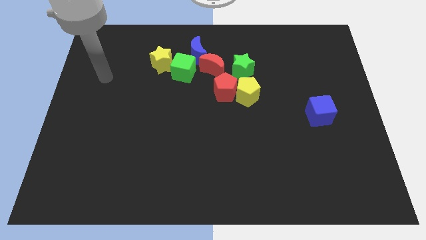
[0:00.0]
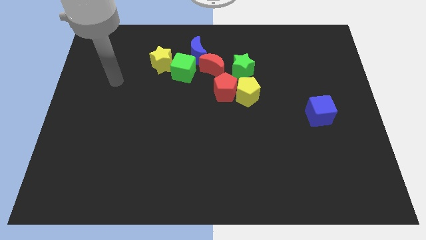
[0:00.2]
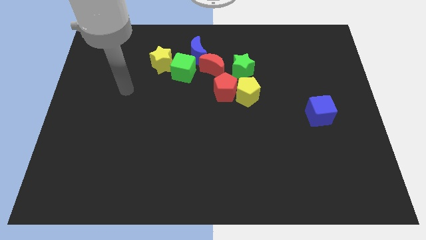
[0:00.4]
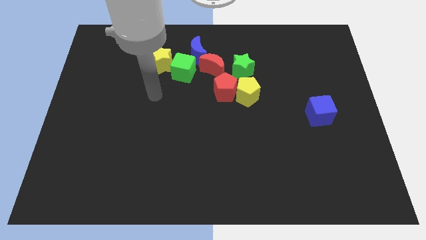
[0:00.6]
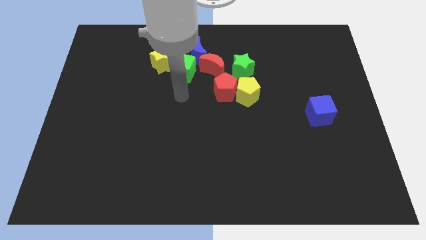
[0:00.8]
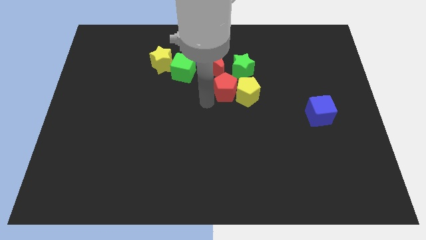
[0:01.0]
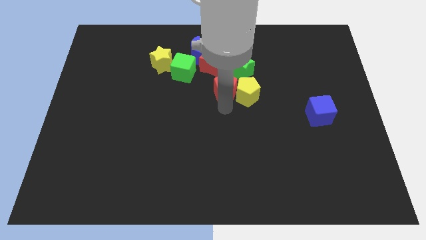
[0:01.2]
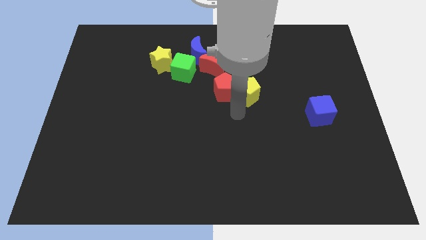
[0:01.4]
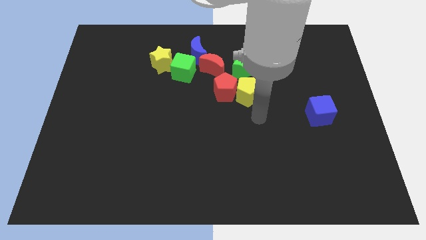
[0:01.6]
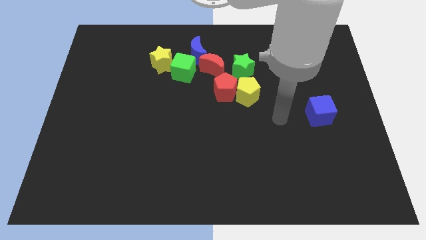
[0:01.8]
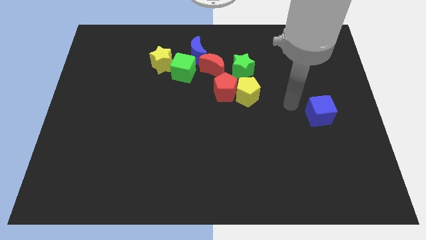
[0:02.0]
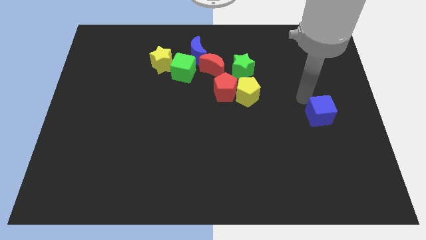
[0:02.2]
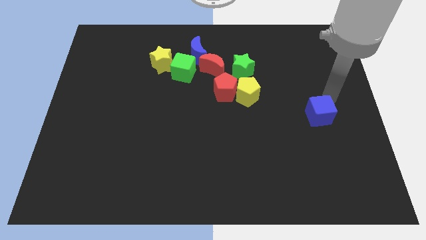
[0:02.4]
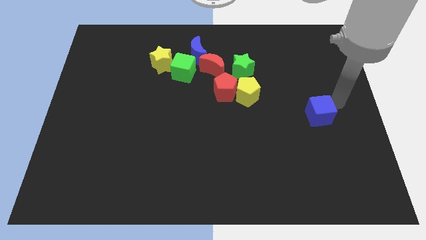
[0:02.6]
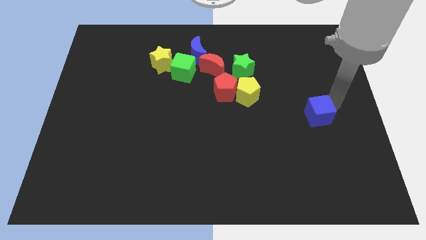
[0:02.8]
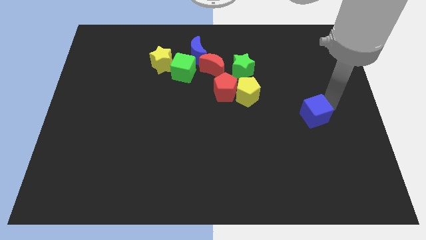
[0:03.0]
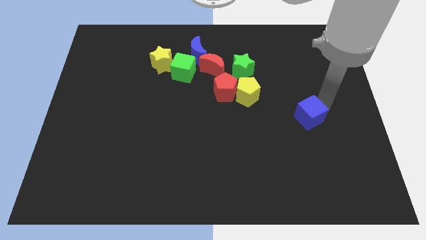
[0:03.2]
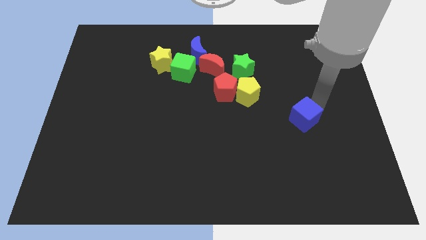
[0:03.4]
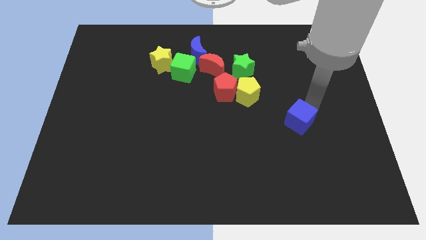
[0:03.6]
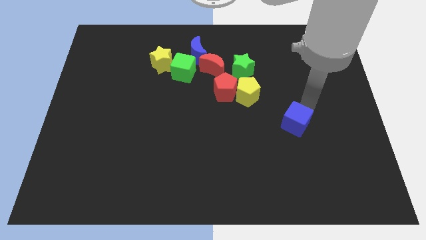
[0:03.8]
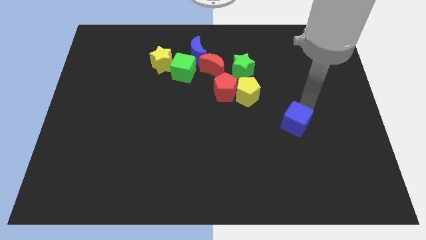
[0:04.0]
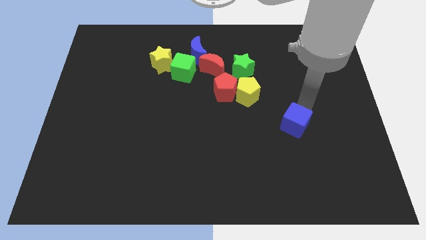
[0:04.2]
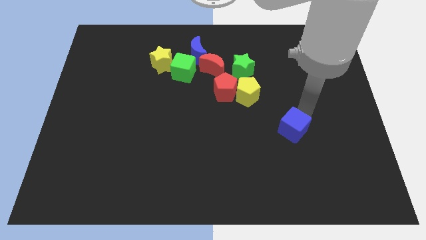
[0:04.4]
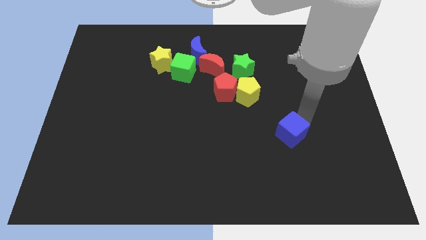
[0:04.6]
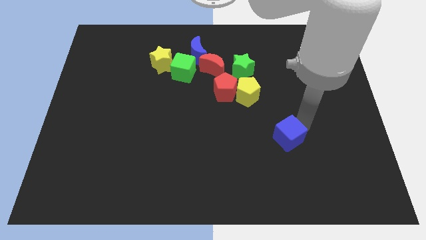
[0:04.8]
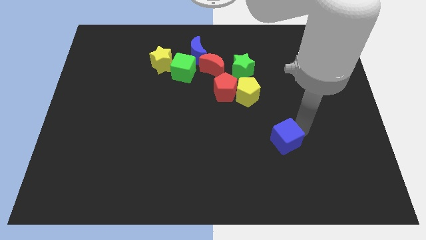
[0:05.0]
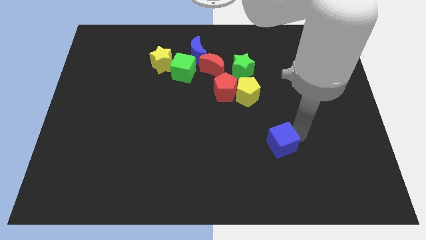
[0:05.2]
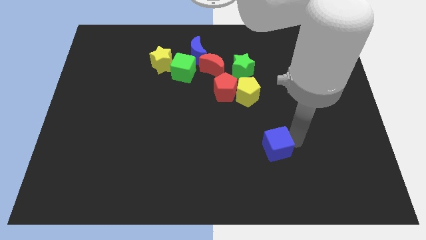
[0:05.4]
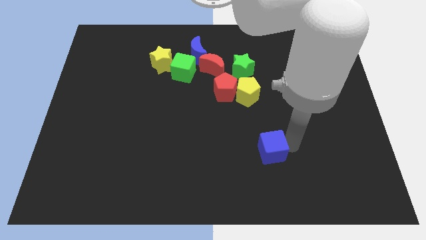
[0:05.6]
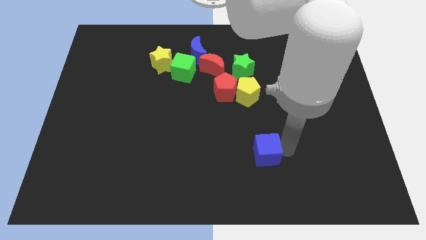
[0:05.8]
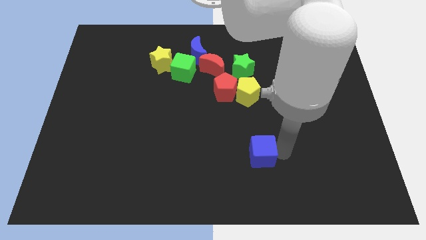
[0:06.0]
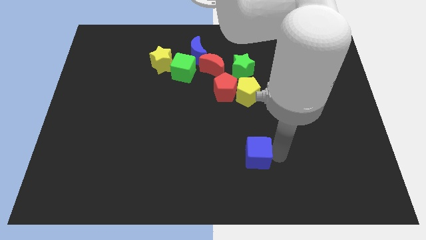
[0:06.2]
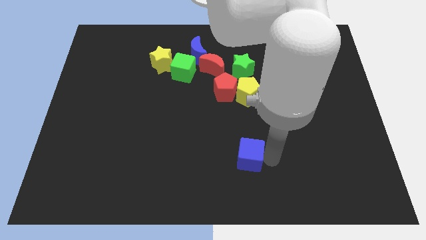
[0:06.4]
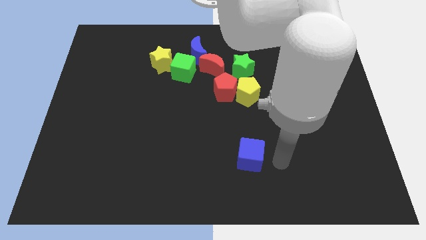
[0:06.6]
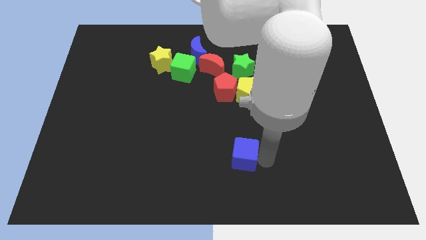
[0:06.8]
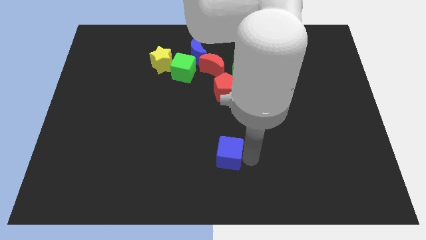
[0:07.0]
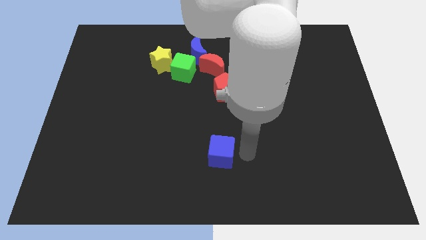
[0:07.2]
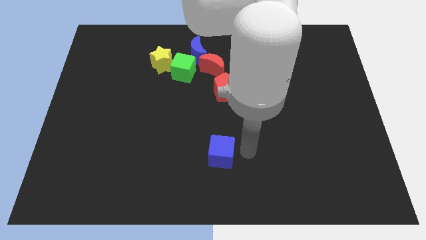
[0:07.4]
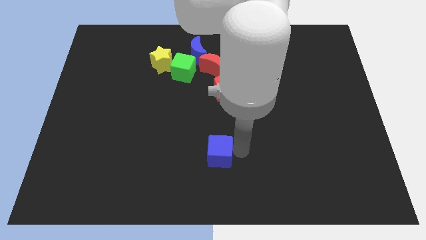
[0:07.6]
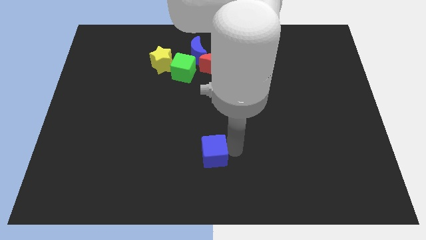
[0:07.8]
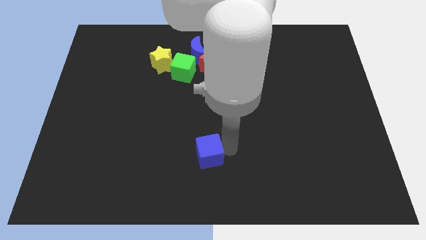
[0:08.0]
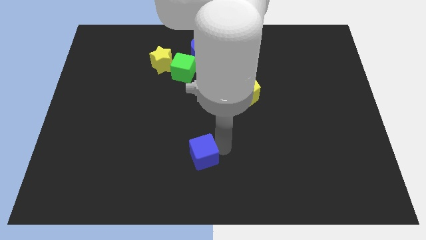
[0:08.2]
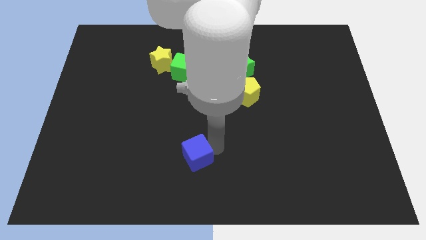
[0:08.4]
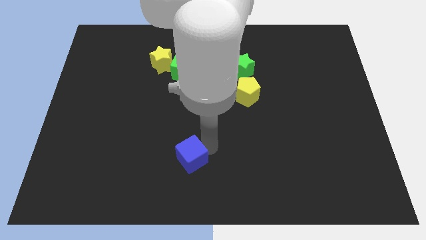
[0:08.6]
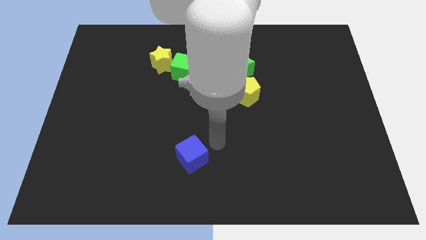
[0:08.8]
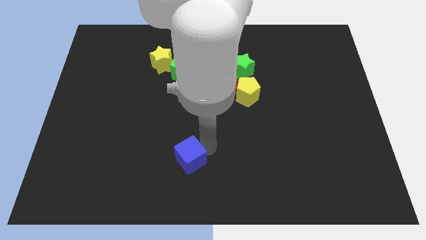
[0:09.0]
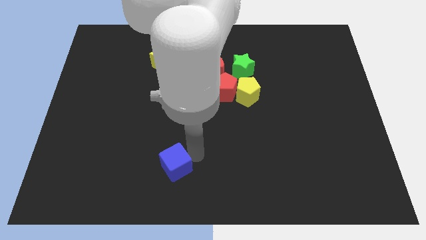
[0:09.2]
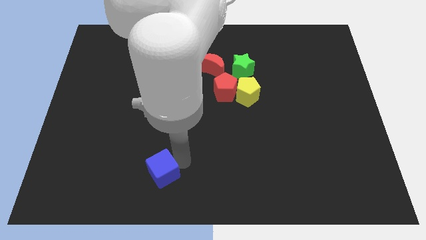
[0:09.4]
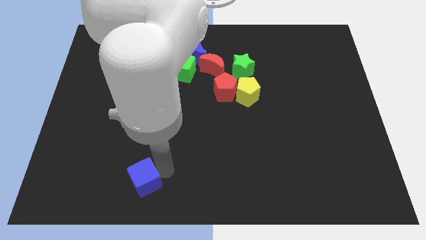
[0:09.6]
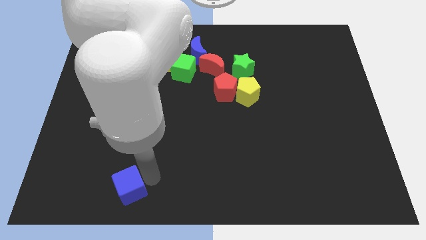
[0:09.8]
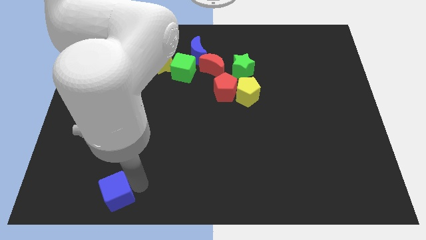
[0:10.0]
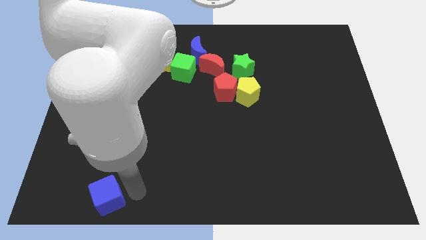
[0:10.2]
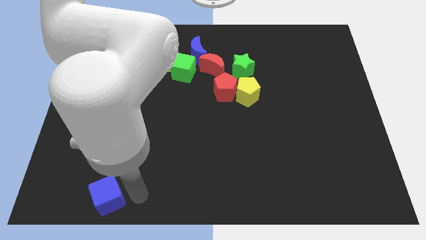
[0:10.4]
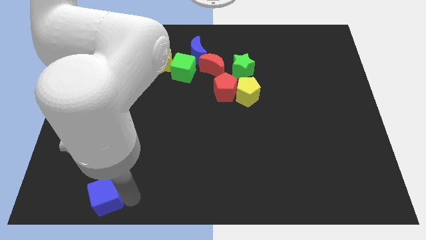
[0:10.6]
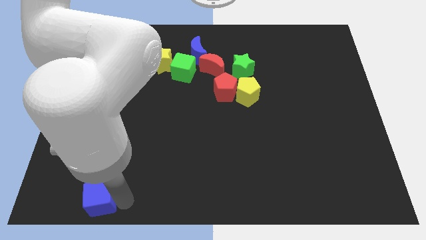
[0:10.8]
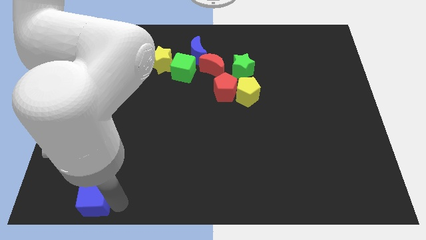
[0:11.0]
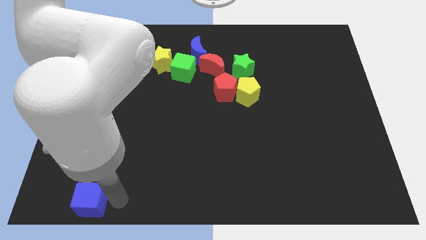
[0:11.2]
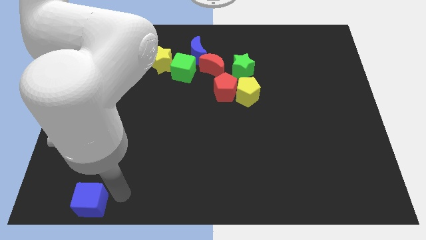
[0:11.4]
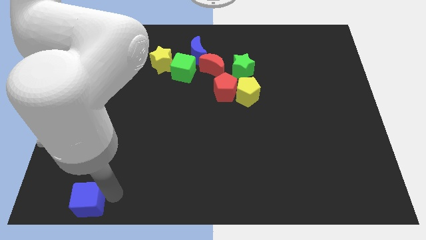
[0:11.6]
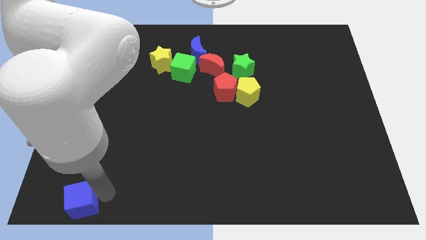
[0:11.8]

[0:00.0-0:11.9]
put the blue cube to the bottom left of the board
